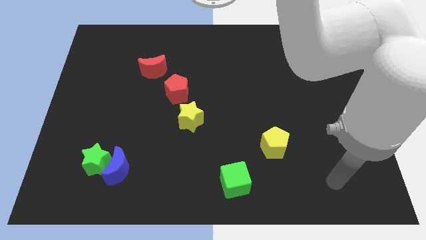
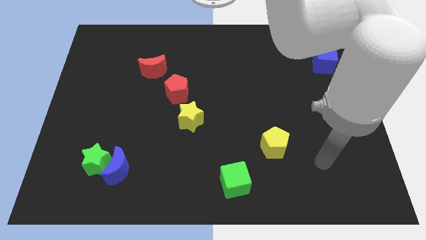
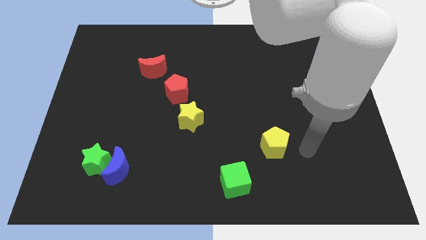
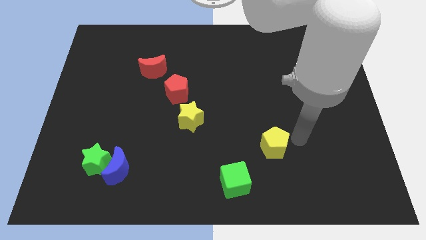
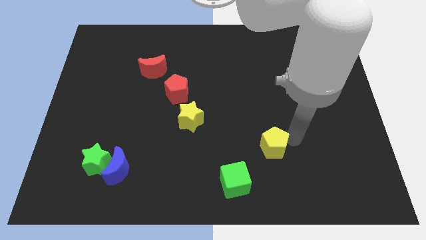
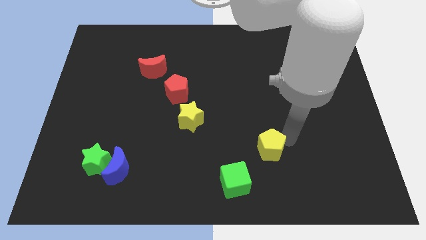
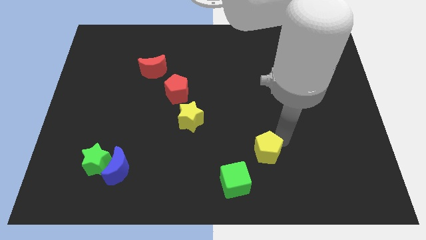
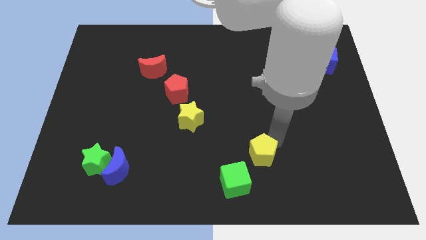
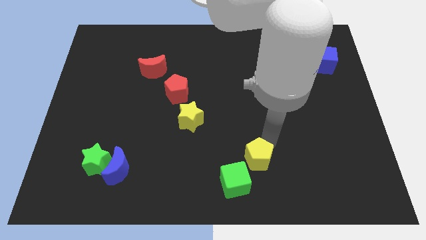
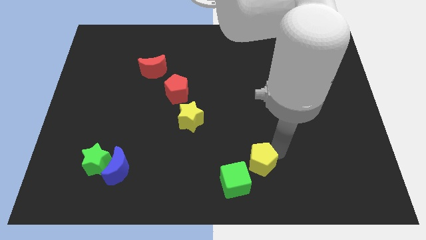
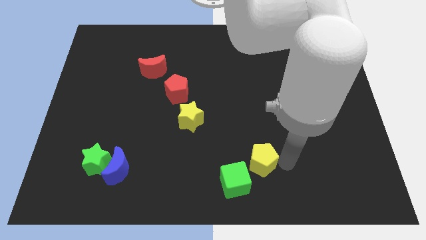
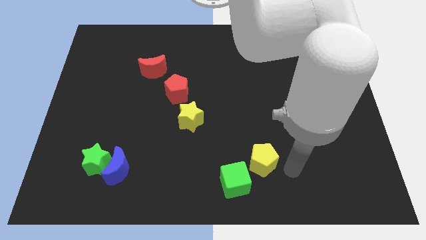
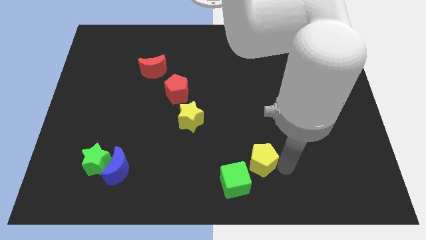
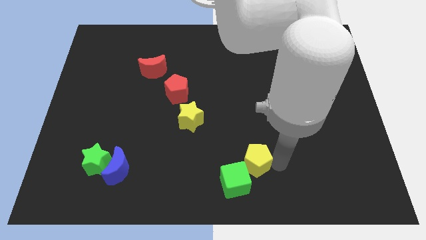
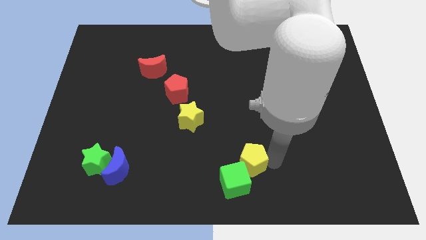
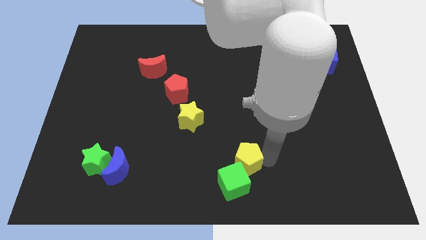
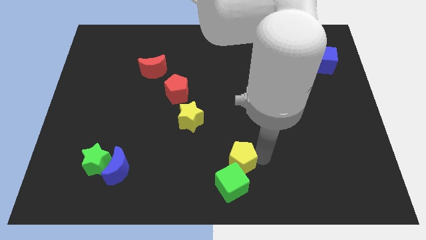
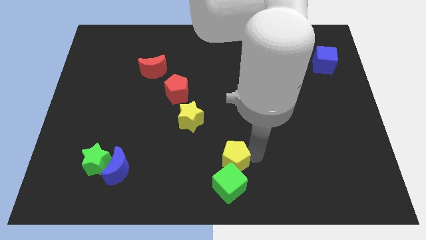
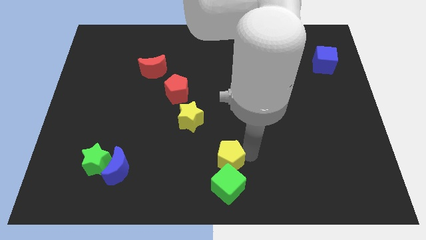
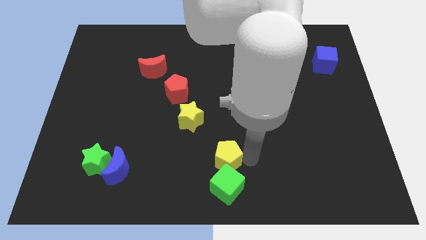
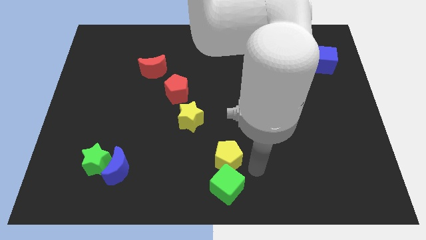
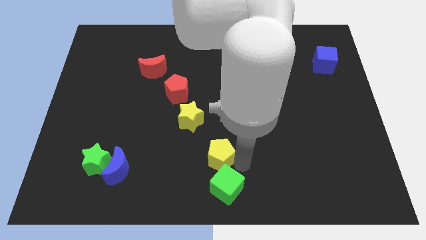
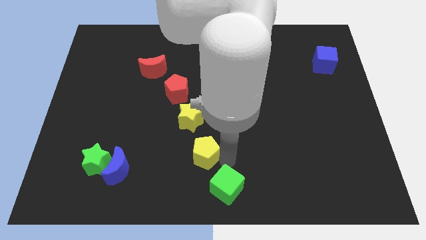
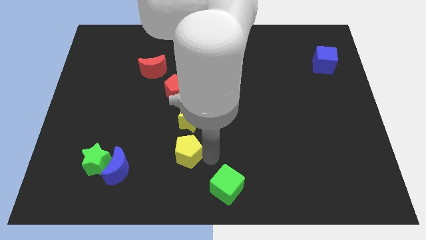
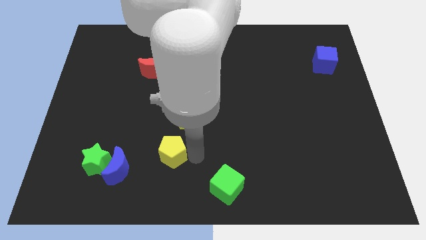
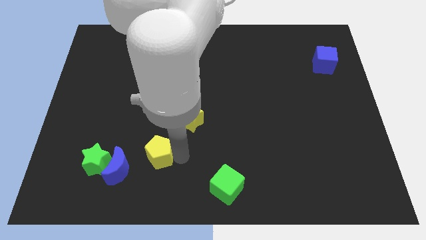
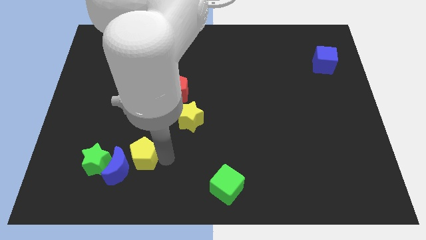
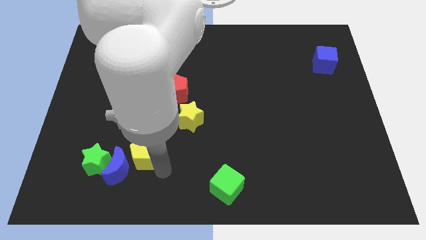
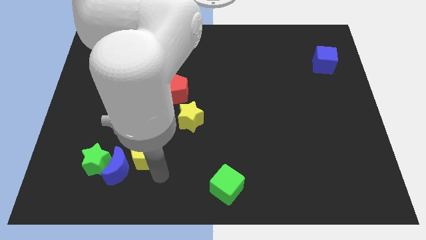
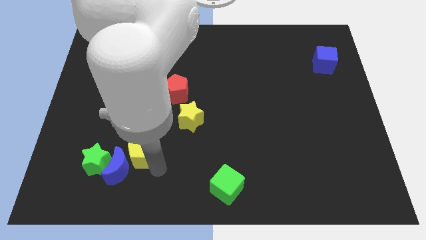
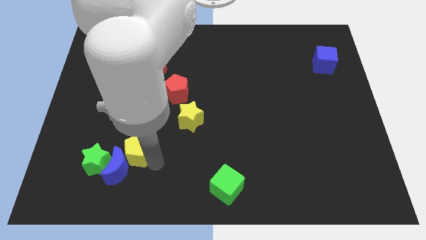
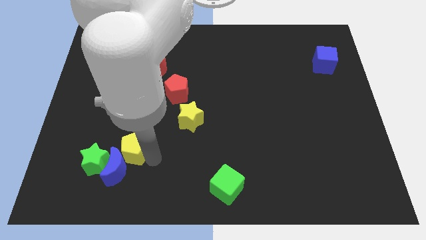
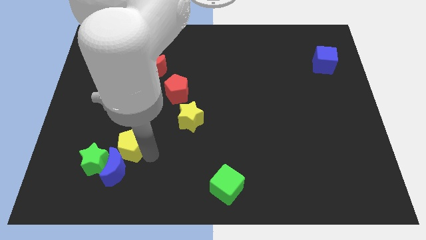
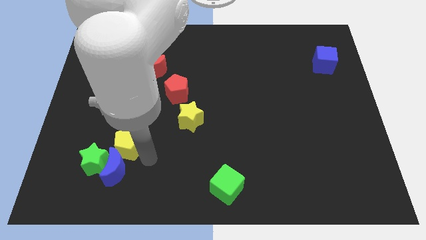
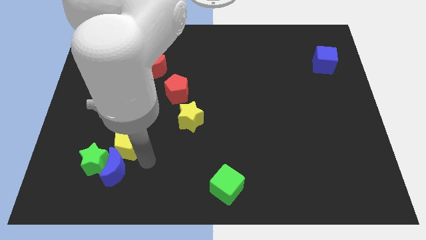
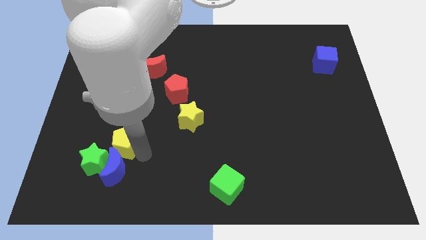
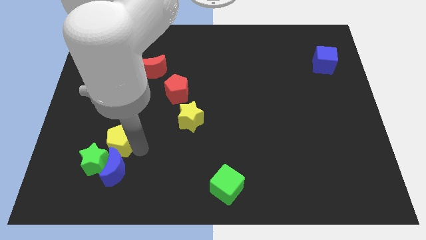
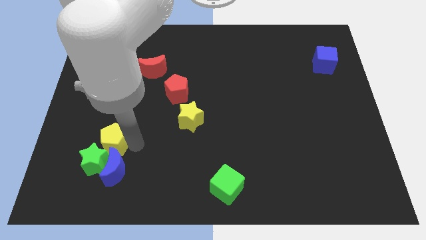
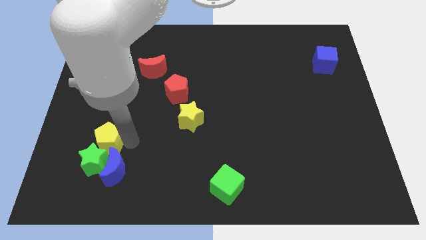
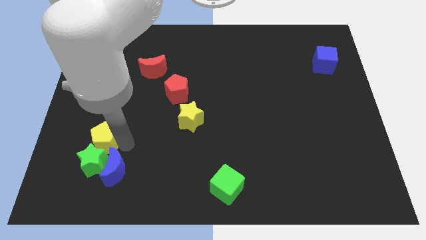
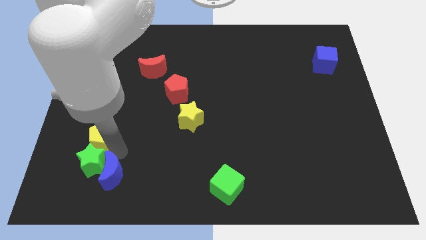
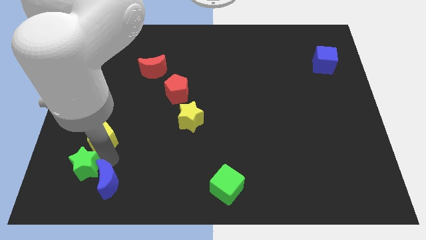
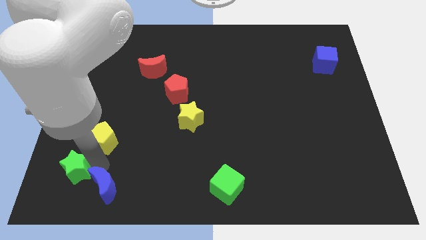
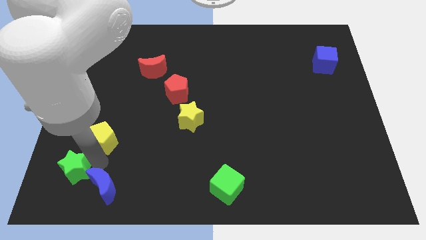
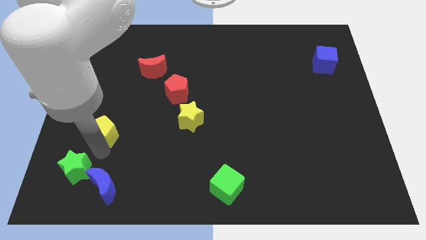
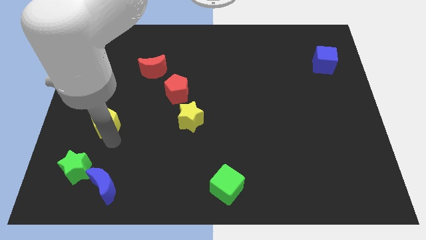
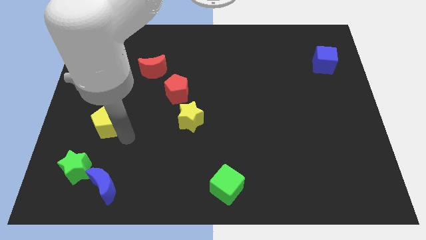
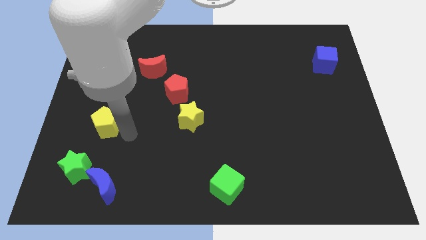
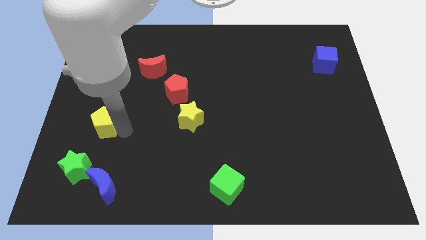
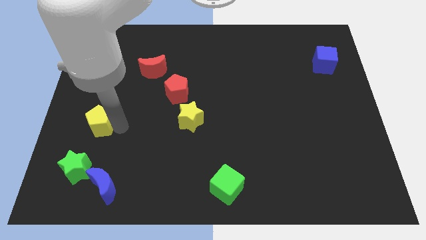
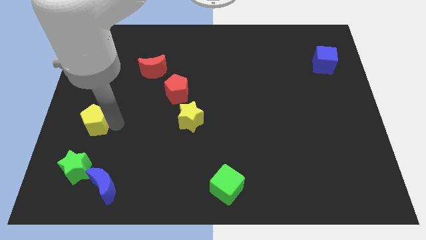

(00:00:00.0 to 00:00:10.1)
put the yellow pentagon to the center left

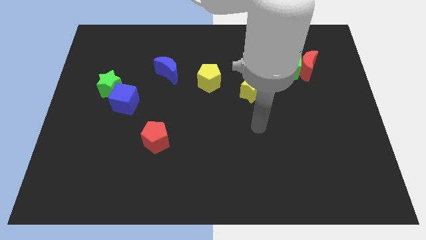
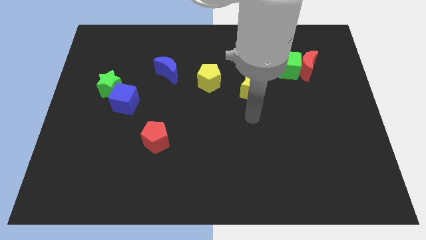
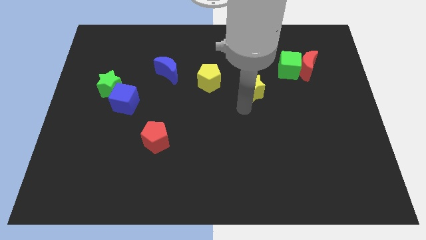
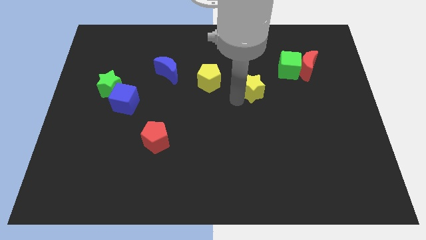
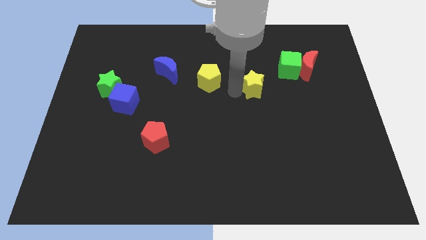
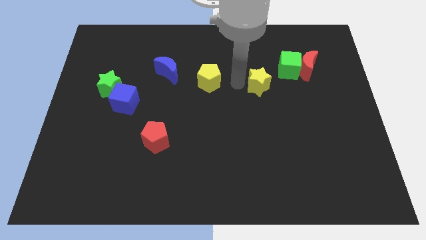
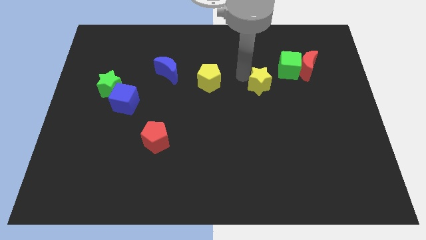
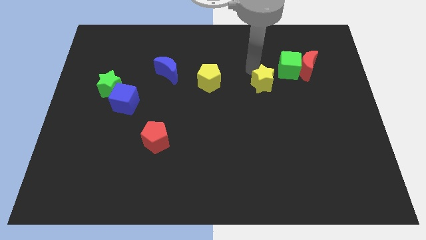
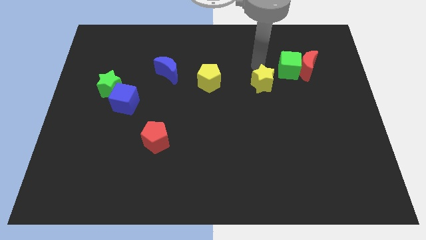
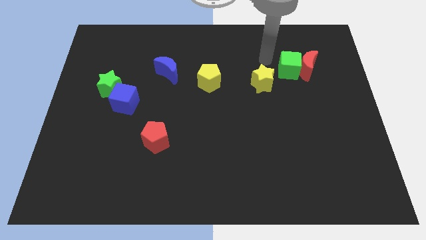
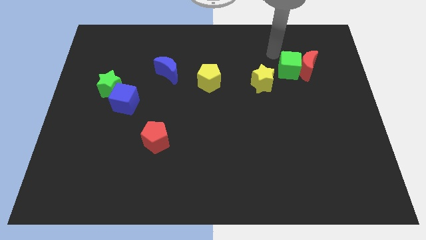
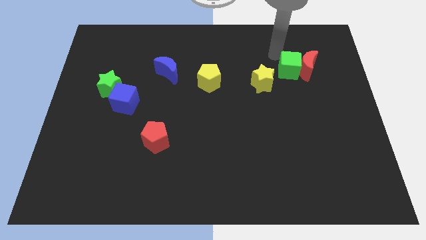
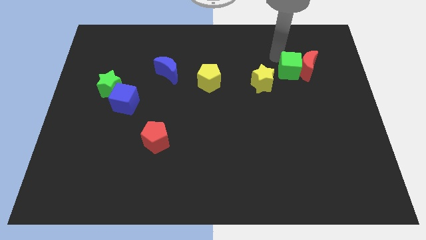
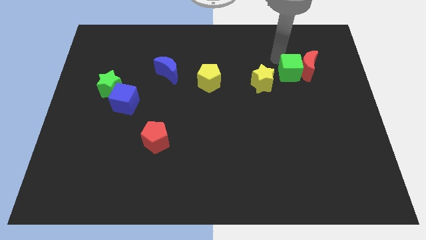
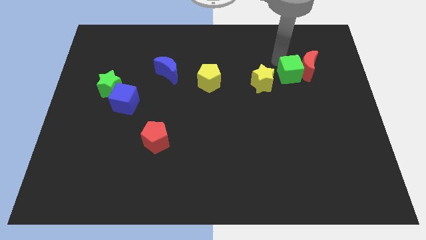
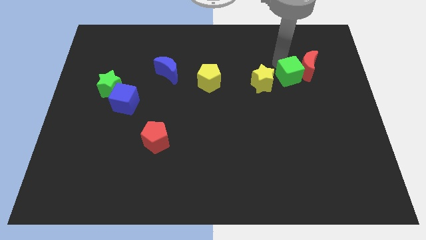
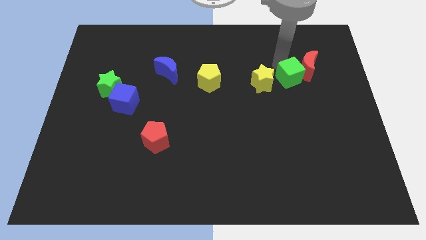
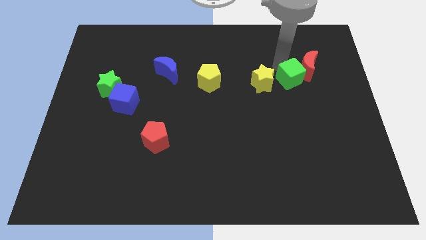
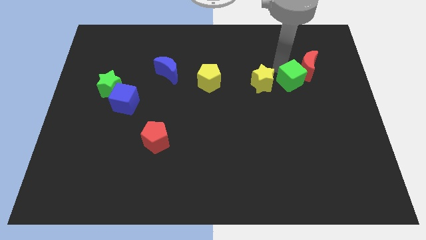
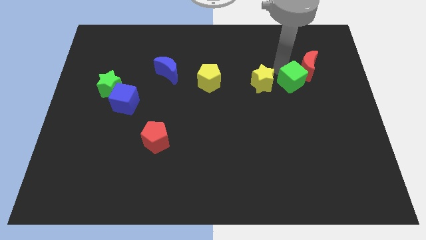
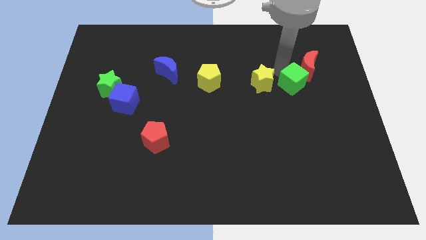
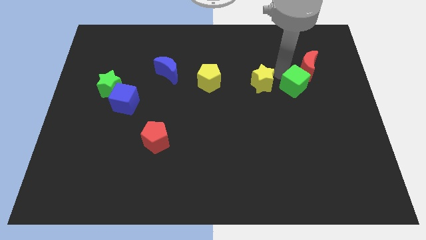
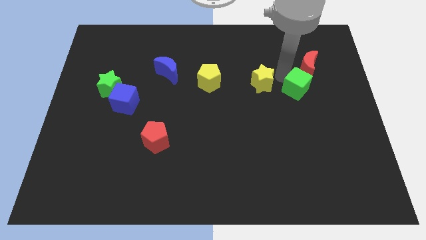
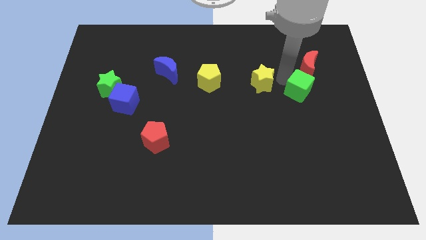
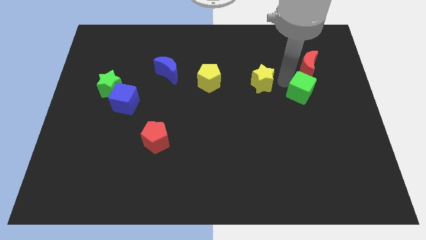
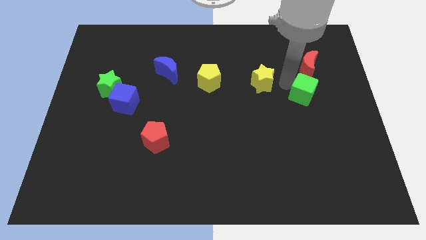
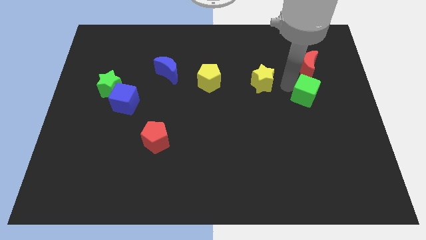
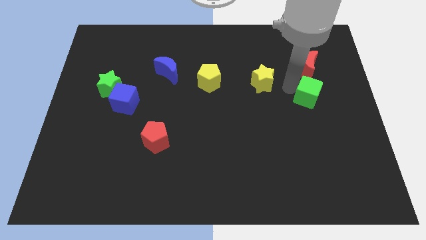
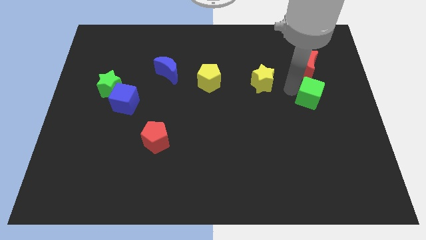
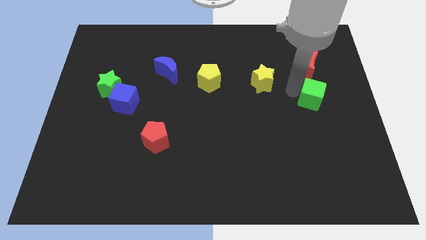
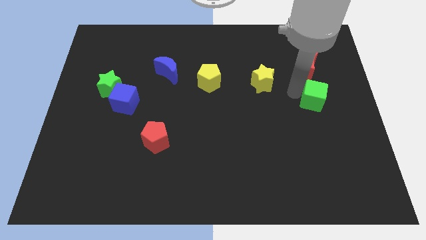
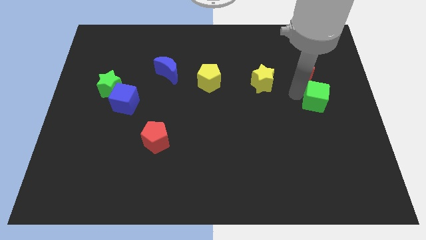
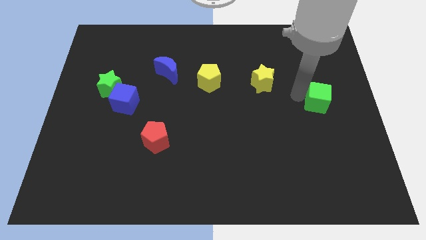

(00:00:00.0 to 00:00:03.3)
slide the green cube to the right side of the board
